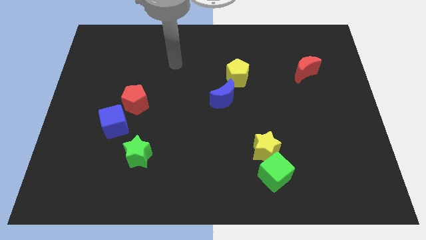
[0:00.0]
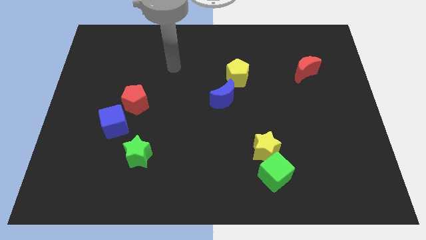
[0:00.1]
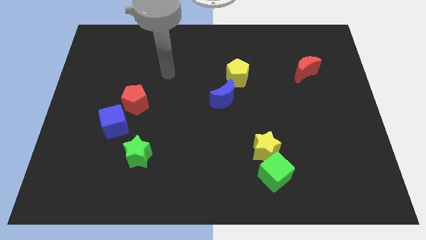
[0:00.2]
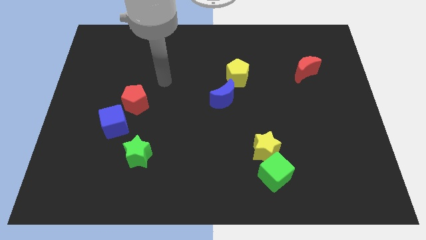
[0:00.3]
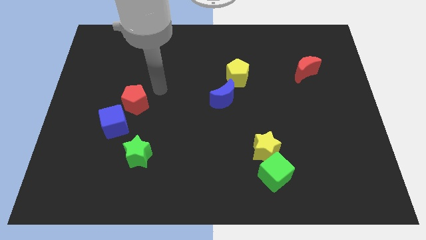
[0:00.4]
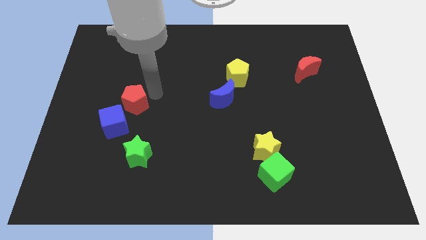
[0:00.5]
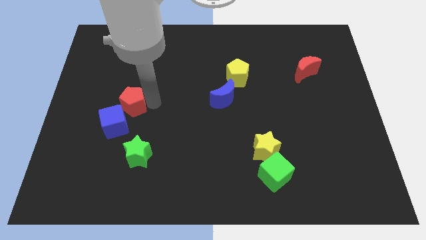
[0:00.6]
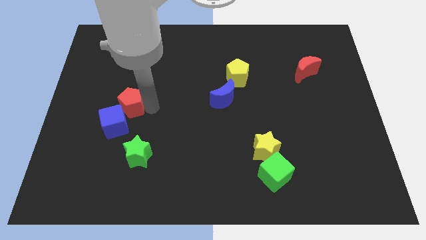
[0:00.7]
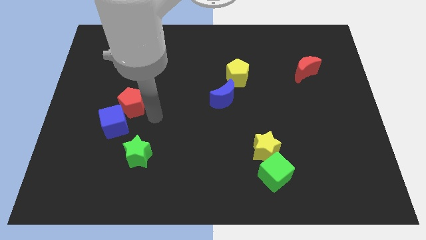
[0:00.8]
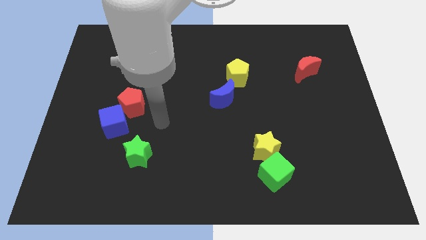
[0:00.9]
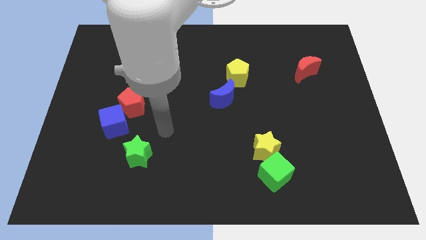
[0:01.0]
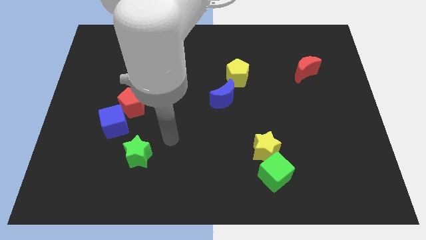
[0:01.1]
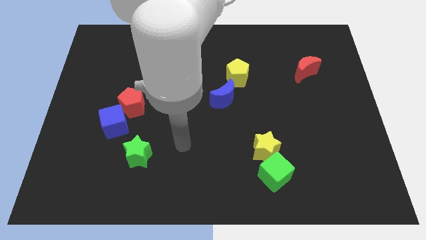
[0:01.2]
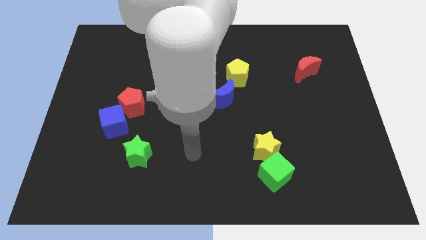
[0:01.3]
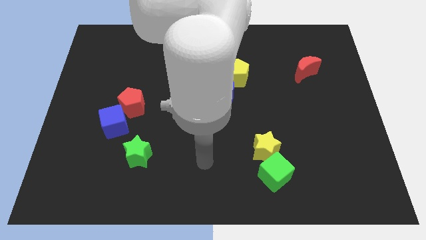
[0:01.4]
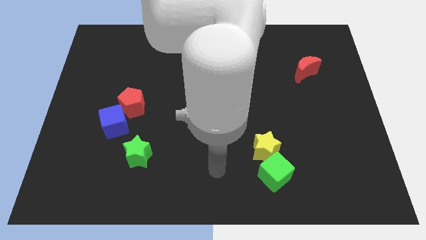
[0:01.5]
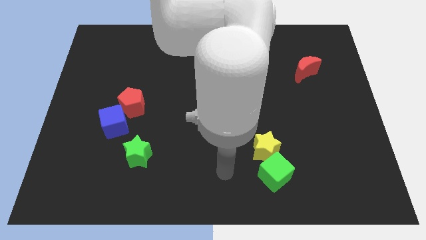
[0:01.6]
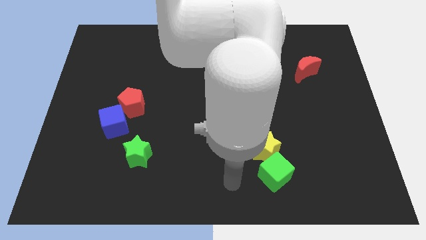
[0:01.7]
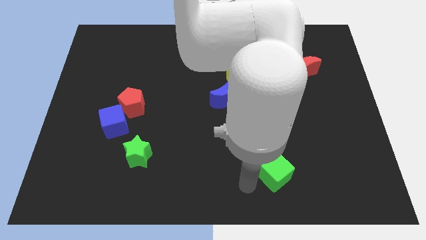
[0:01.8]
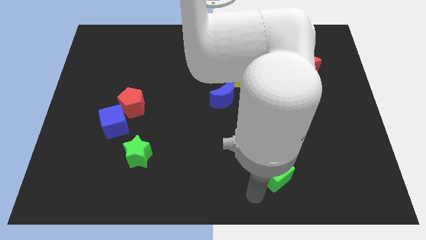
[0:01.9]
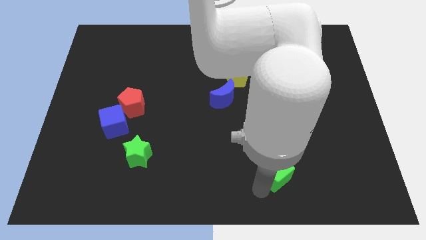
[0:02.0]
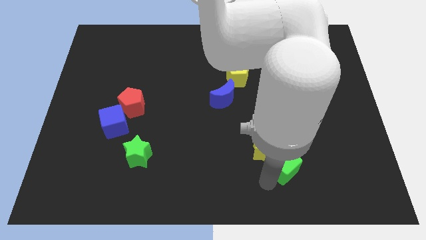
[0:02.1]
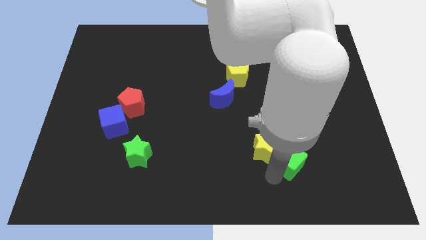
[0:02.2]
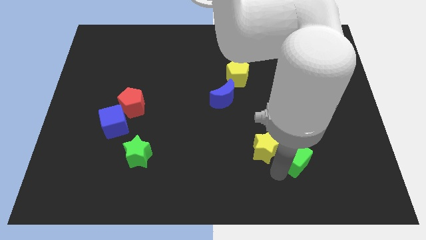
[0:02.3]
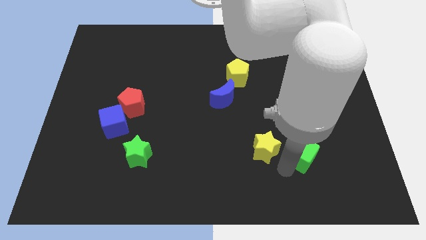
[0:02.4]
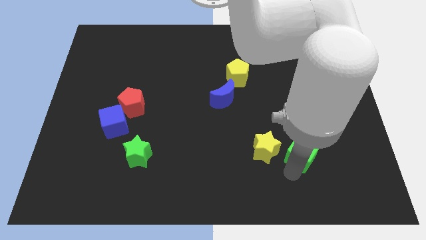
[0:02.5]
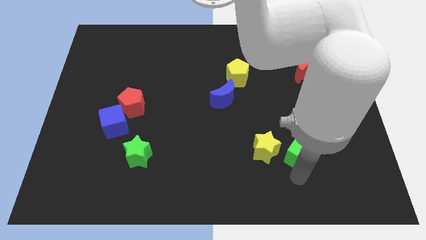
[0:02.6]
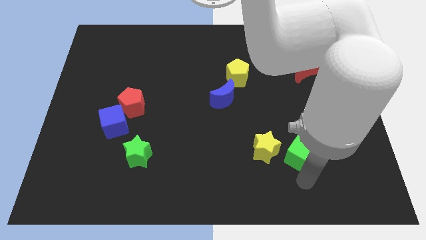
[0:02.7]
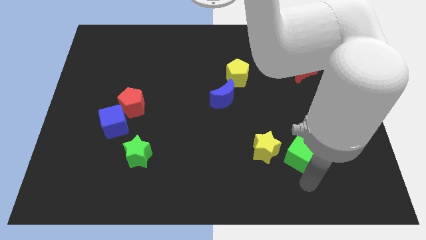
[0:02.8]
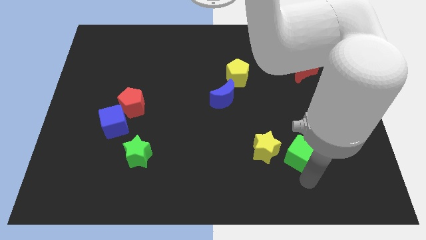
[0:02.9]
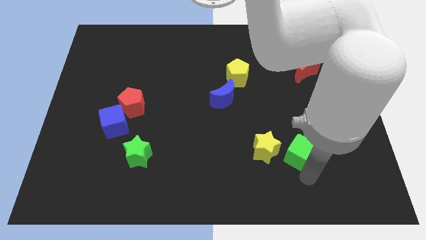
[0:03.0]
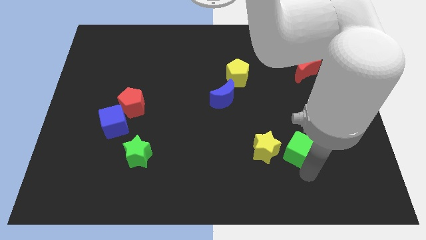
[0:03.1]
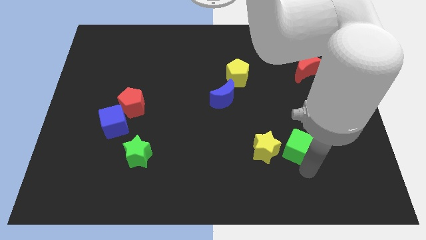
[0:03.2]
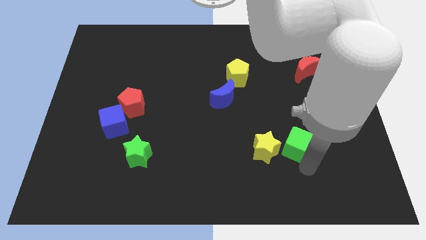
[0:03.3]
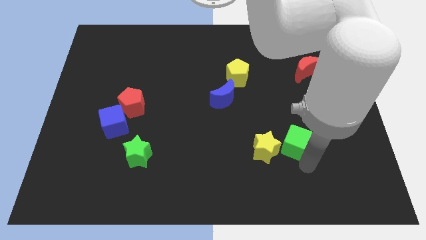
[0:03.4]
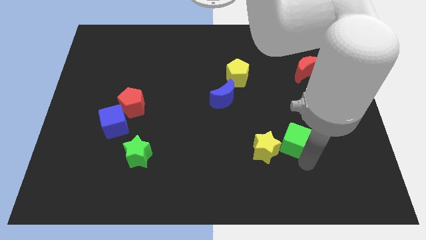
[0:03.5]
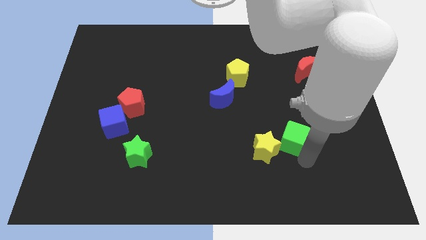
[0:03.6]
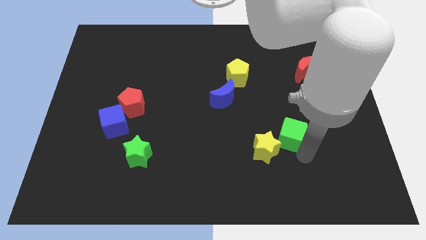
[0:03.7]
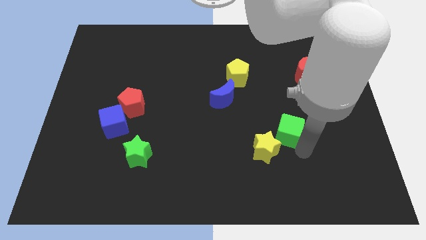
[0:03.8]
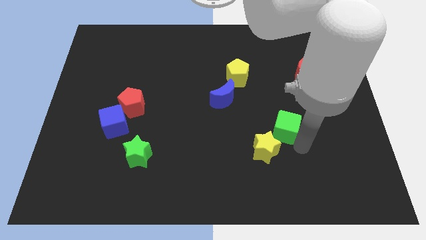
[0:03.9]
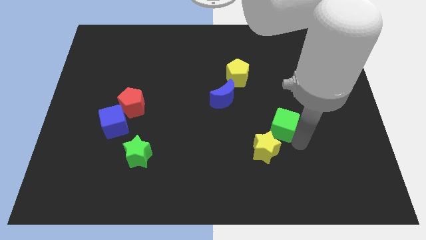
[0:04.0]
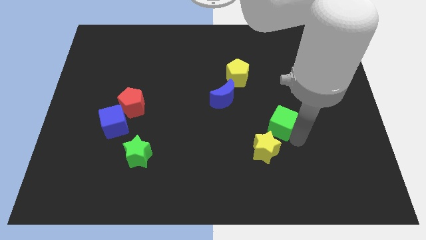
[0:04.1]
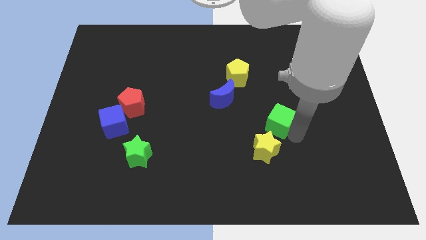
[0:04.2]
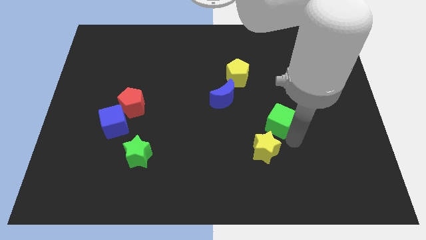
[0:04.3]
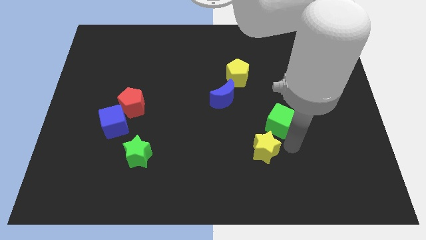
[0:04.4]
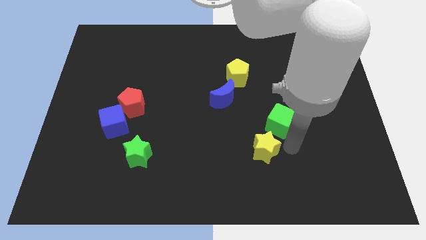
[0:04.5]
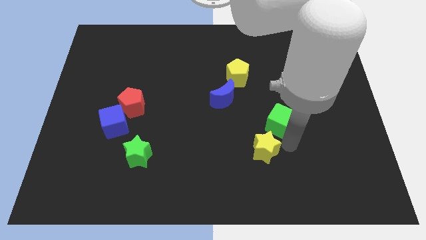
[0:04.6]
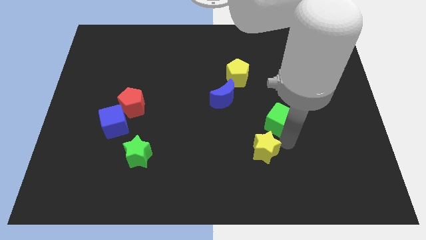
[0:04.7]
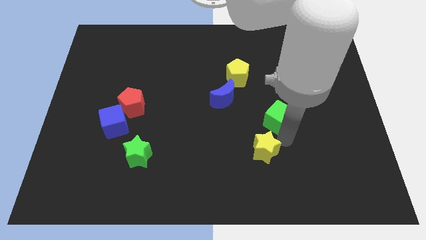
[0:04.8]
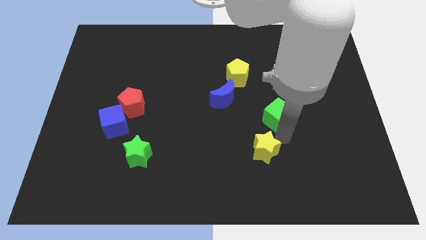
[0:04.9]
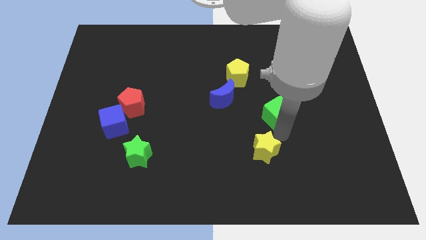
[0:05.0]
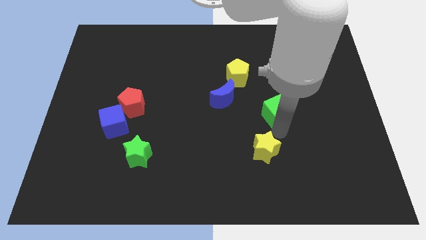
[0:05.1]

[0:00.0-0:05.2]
slide the green cube just right of the blue moon
